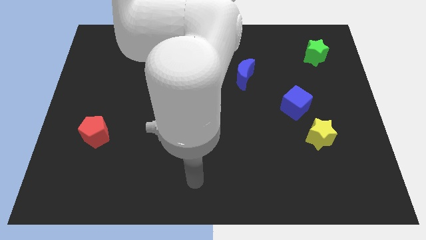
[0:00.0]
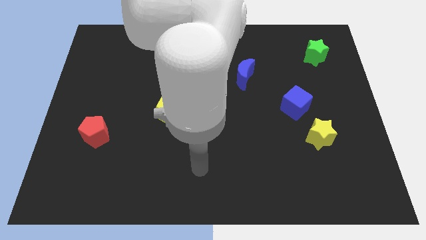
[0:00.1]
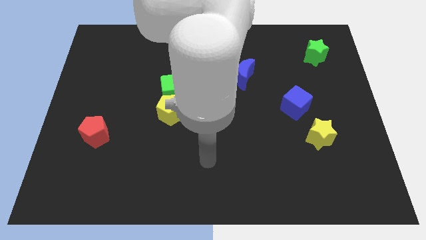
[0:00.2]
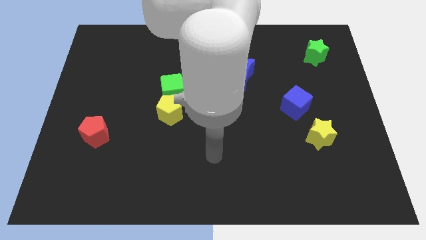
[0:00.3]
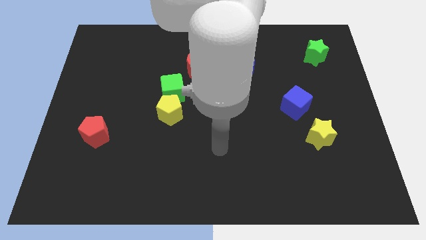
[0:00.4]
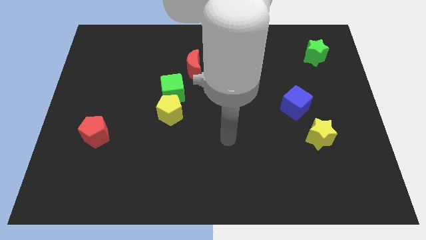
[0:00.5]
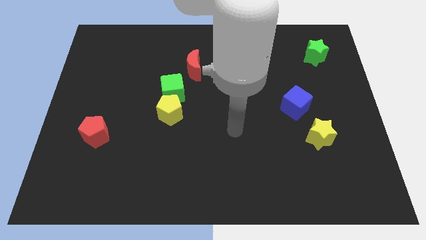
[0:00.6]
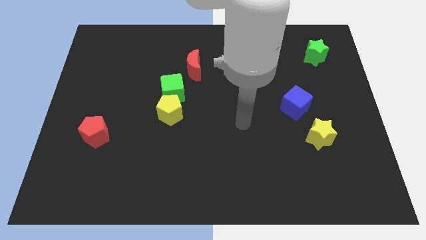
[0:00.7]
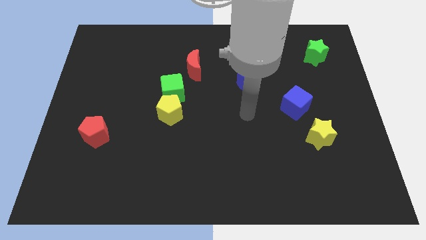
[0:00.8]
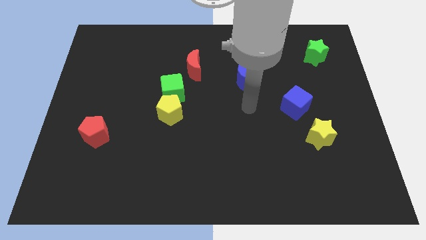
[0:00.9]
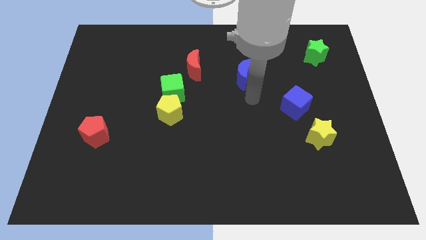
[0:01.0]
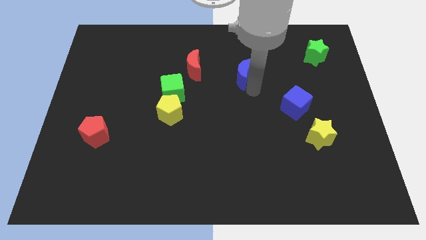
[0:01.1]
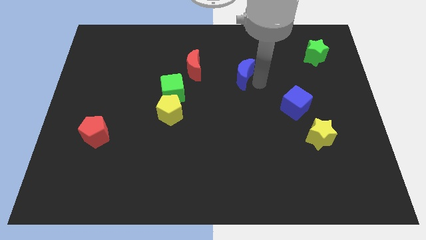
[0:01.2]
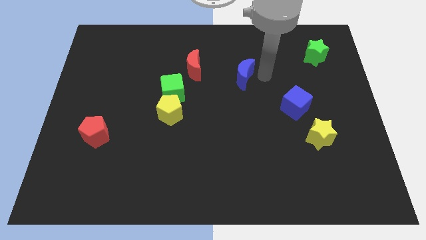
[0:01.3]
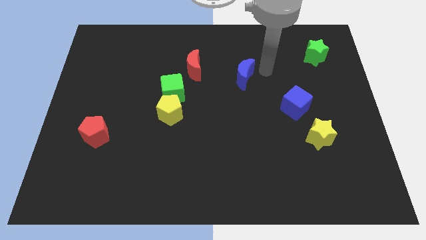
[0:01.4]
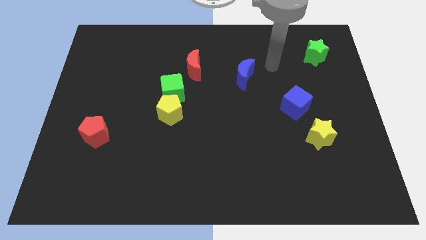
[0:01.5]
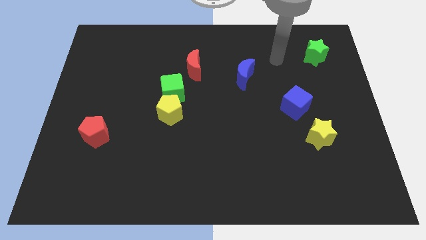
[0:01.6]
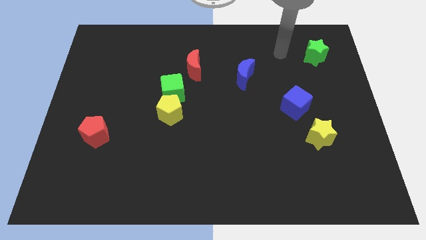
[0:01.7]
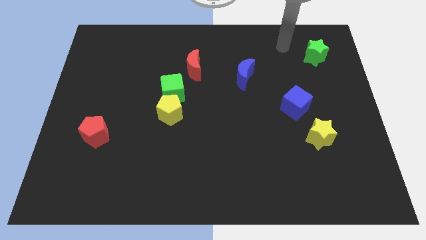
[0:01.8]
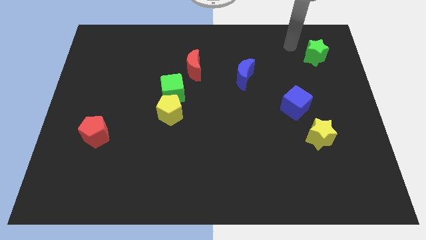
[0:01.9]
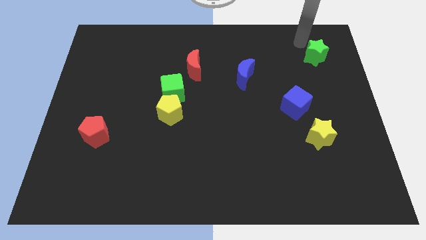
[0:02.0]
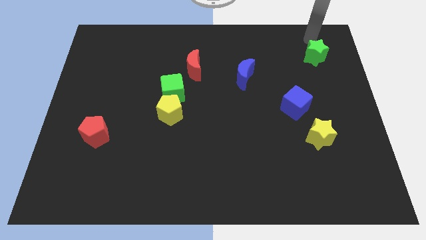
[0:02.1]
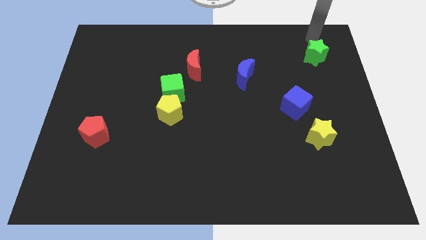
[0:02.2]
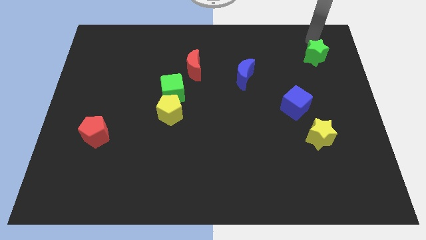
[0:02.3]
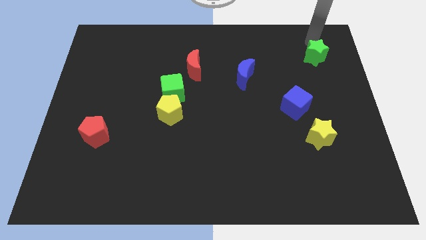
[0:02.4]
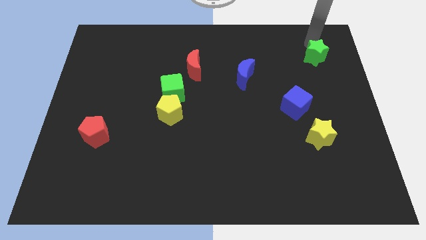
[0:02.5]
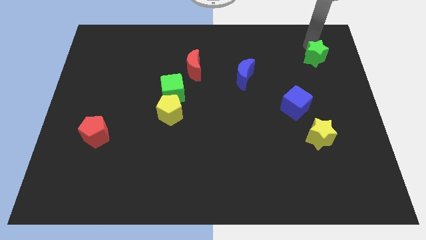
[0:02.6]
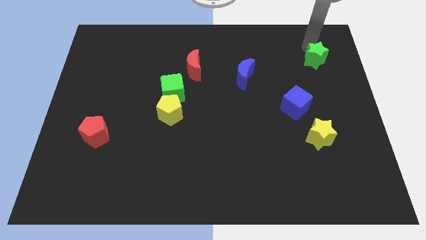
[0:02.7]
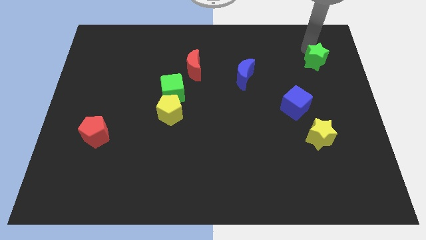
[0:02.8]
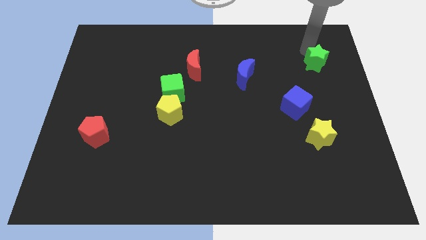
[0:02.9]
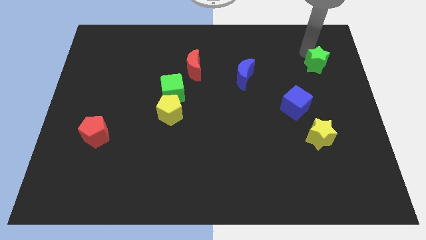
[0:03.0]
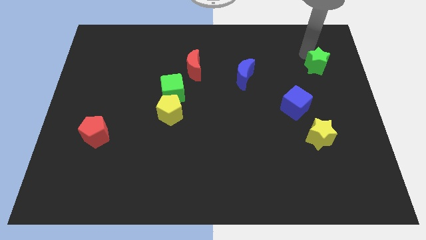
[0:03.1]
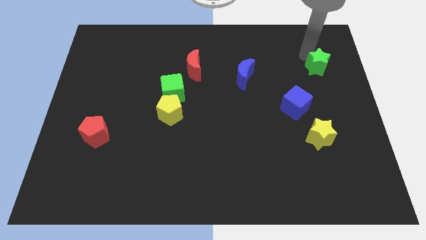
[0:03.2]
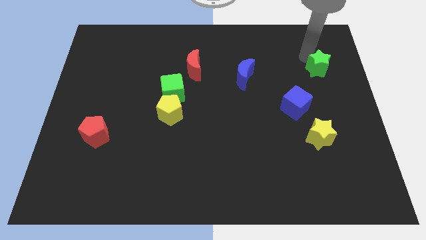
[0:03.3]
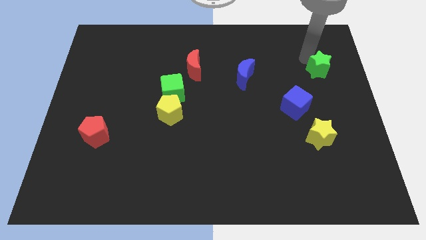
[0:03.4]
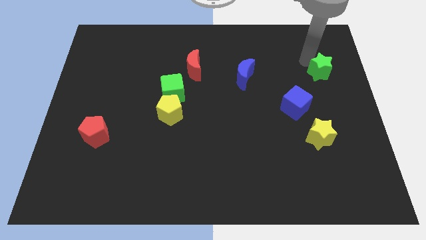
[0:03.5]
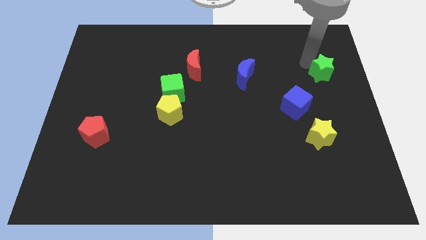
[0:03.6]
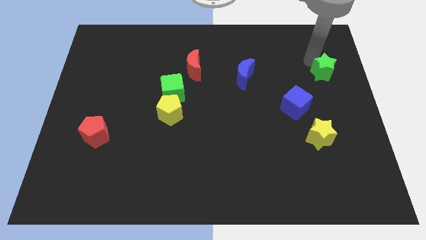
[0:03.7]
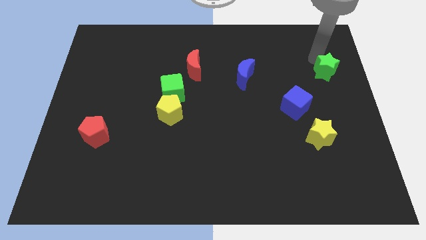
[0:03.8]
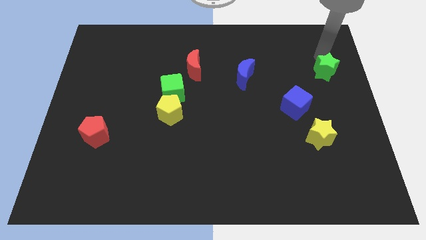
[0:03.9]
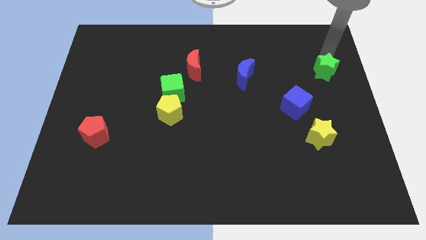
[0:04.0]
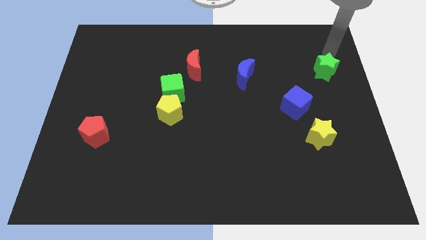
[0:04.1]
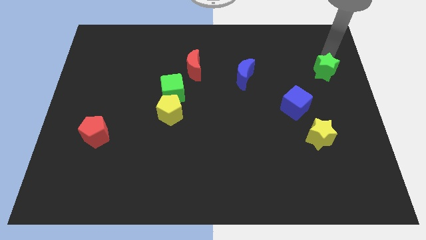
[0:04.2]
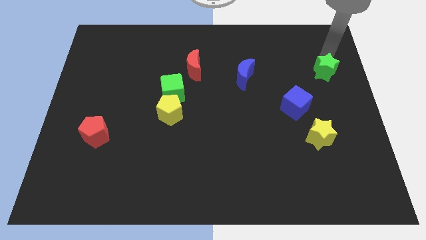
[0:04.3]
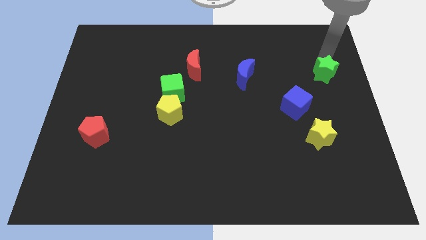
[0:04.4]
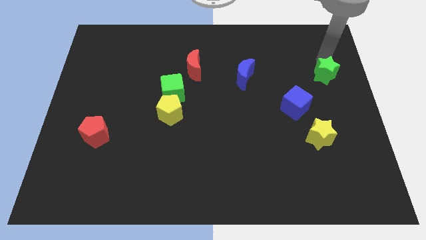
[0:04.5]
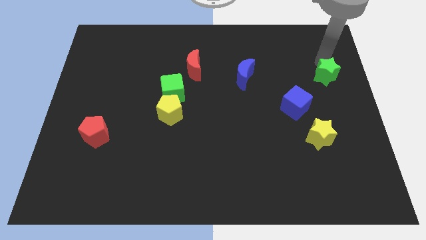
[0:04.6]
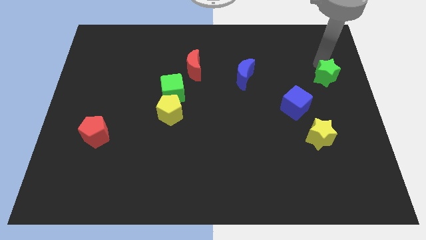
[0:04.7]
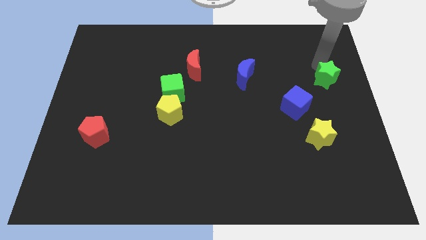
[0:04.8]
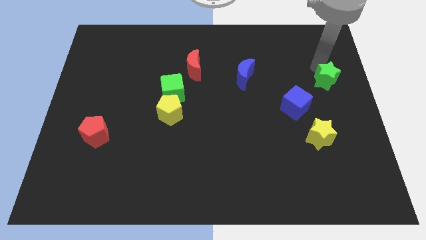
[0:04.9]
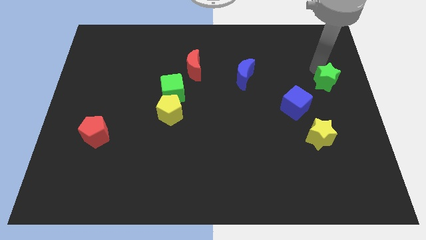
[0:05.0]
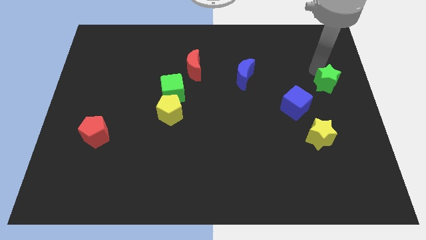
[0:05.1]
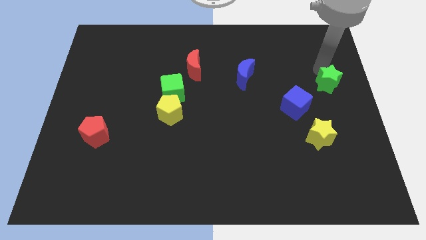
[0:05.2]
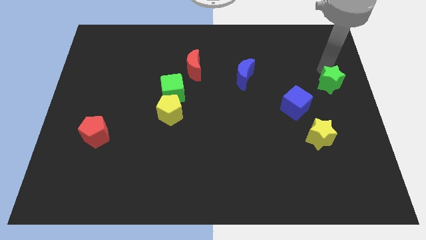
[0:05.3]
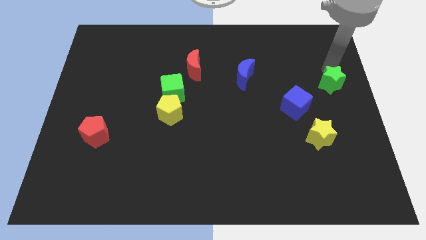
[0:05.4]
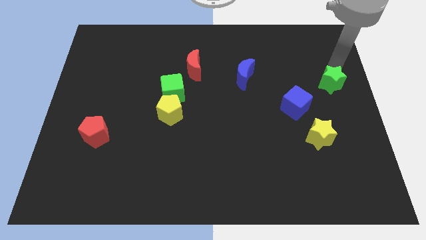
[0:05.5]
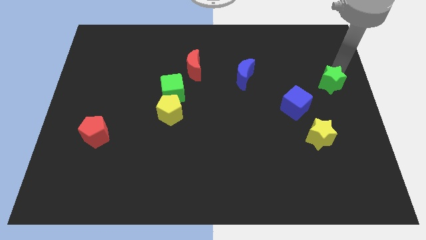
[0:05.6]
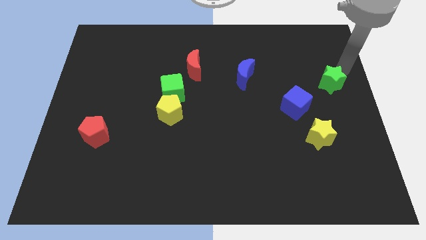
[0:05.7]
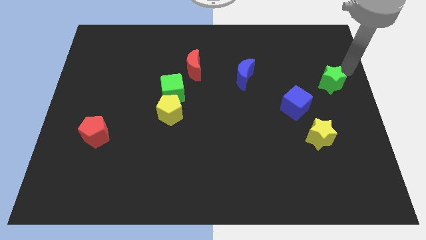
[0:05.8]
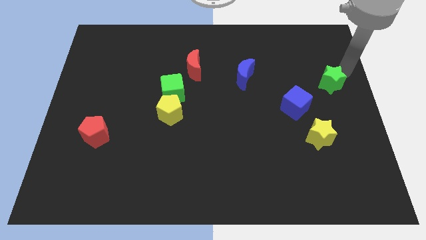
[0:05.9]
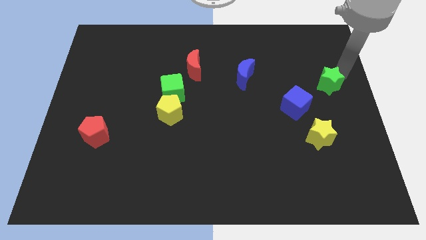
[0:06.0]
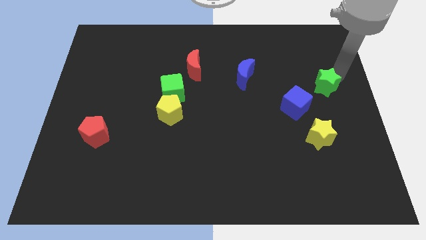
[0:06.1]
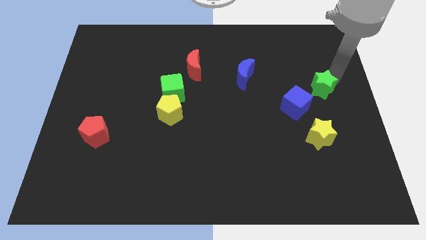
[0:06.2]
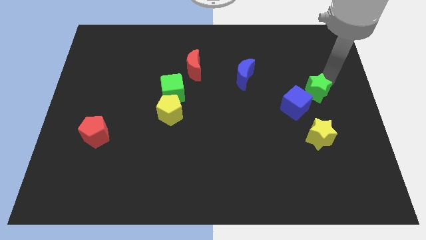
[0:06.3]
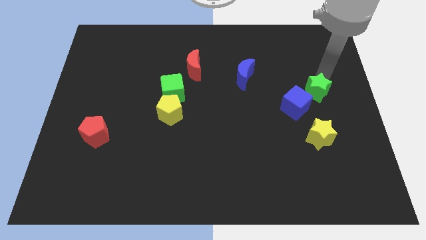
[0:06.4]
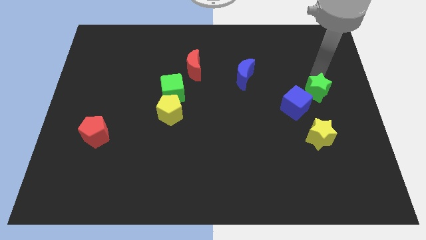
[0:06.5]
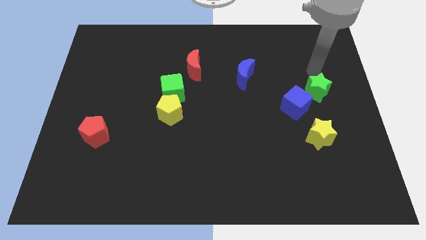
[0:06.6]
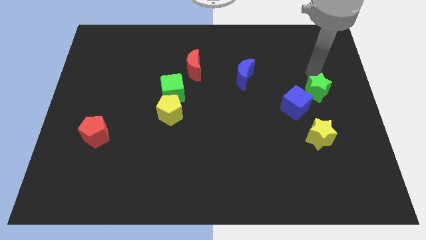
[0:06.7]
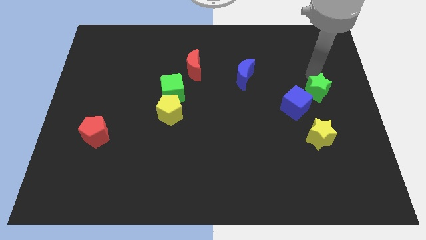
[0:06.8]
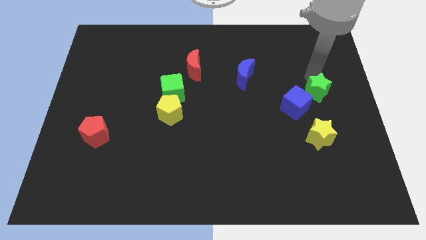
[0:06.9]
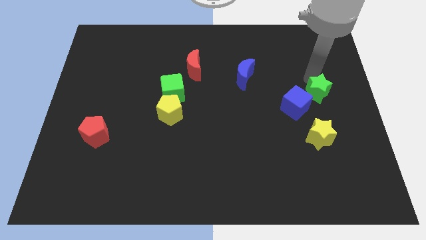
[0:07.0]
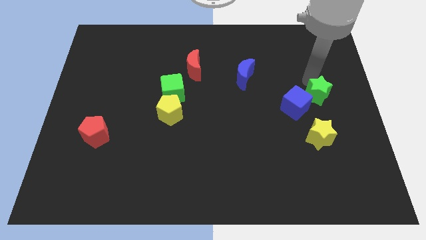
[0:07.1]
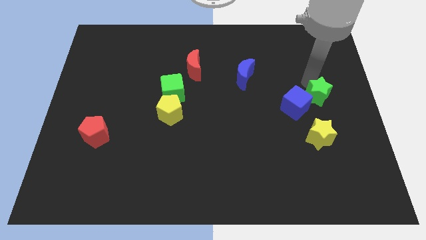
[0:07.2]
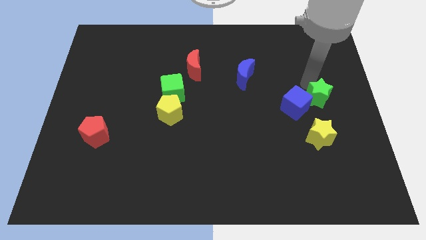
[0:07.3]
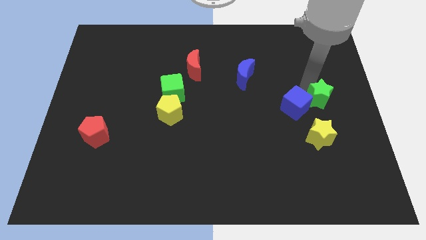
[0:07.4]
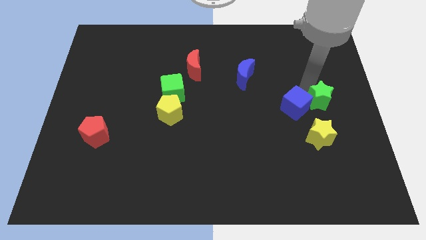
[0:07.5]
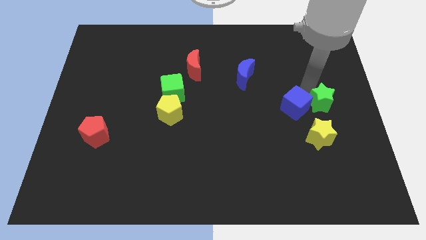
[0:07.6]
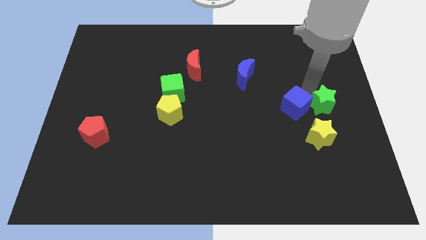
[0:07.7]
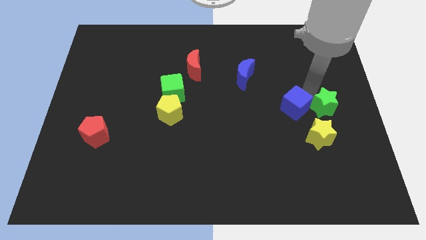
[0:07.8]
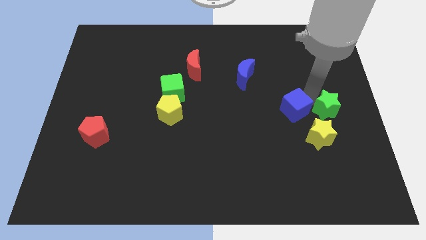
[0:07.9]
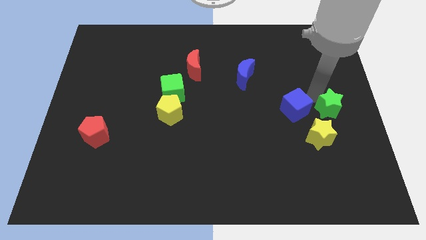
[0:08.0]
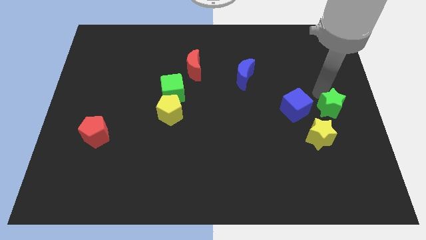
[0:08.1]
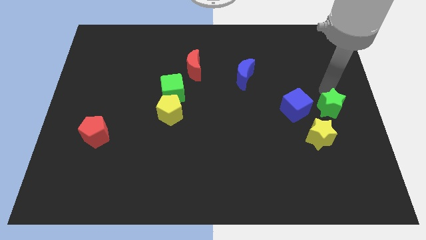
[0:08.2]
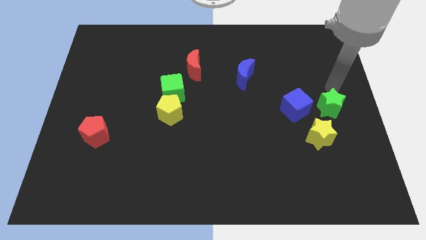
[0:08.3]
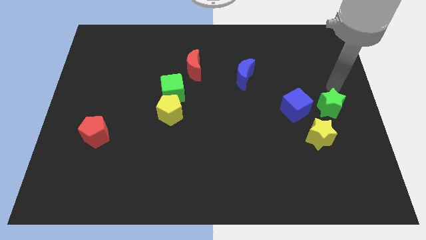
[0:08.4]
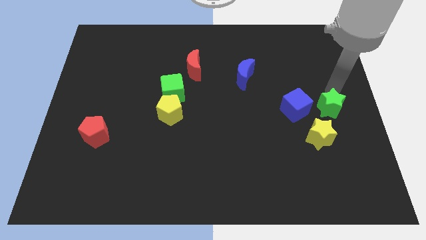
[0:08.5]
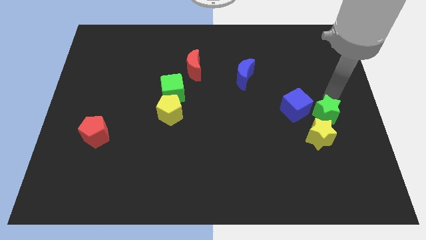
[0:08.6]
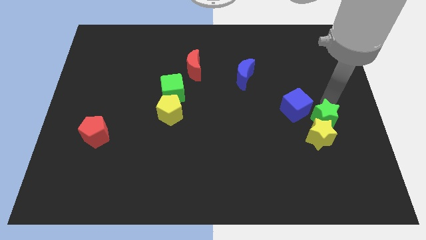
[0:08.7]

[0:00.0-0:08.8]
slide the green star close to the yellow star
